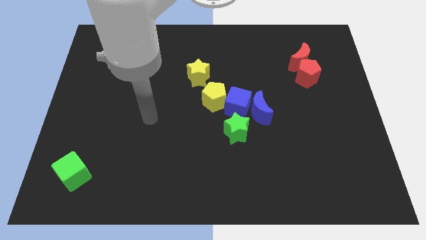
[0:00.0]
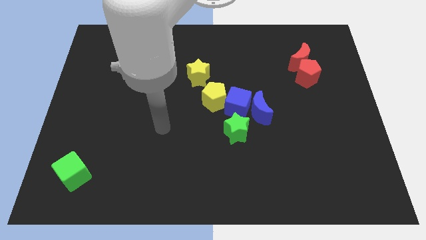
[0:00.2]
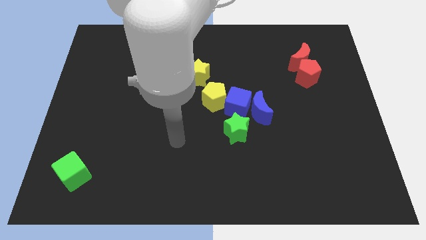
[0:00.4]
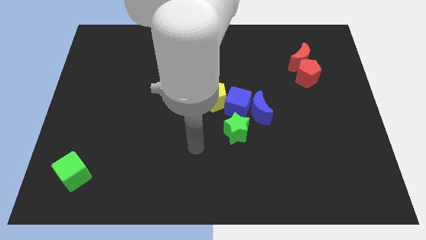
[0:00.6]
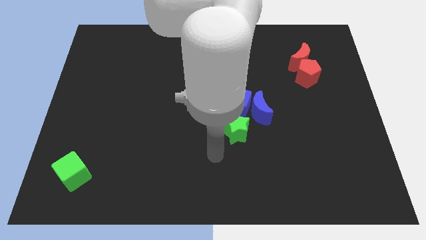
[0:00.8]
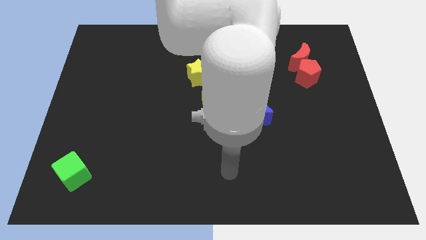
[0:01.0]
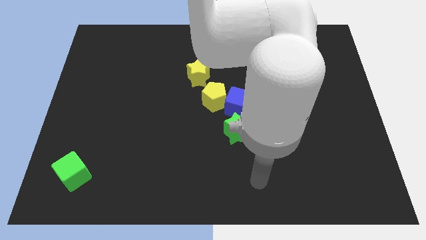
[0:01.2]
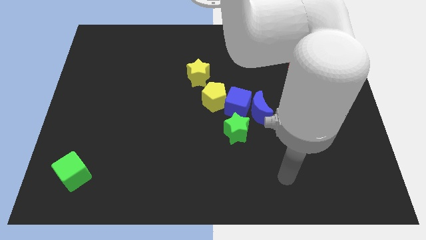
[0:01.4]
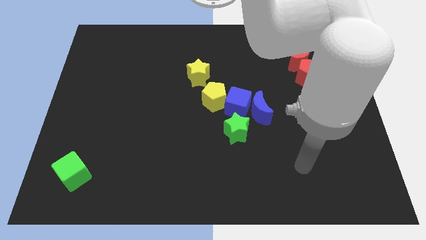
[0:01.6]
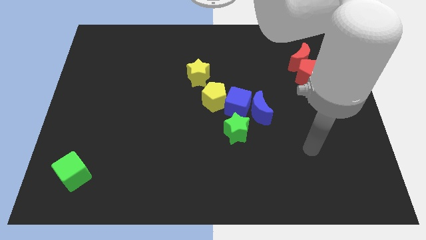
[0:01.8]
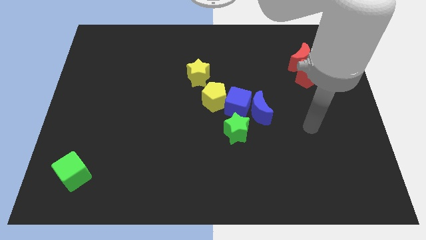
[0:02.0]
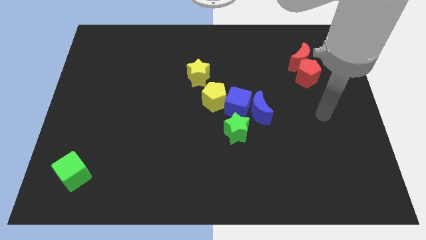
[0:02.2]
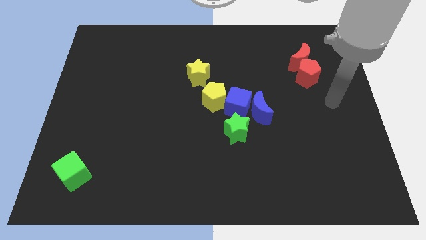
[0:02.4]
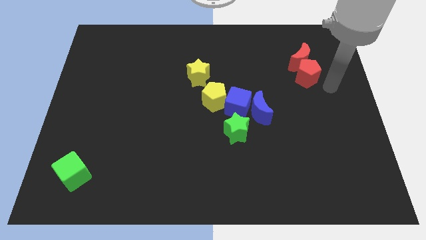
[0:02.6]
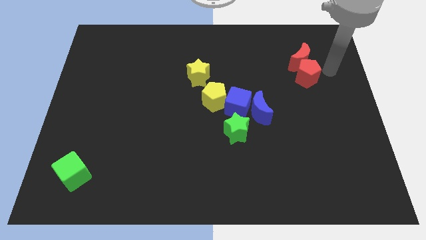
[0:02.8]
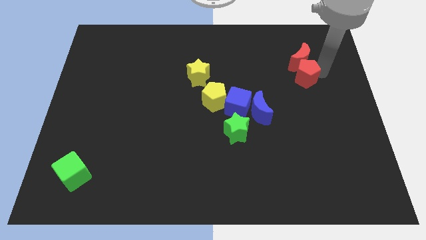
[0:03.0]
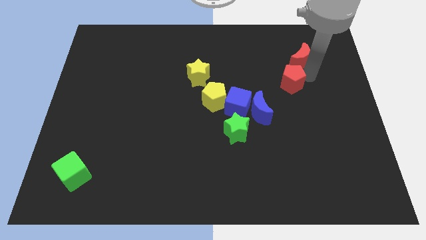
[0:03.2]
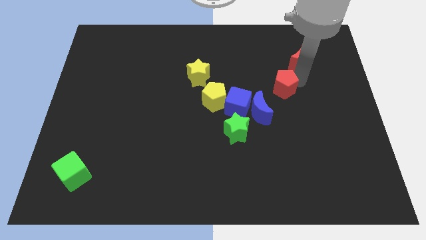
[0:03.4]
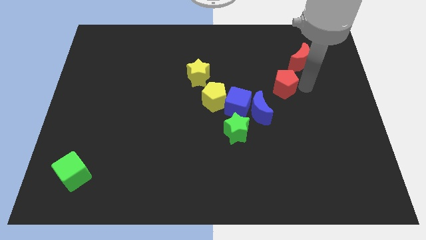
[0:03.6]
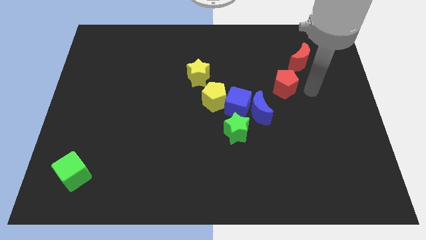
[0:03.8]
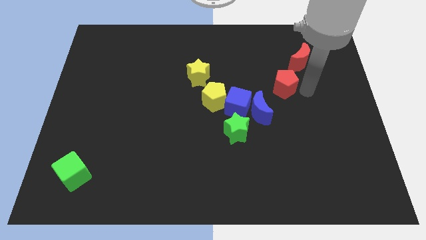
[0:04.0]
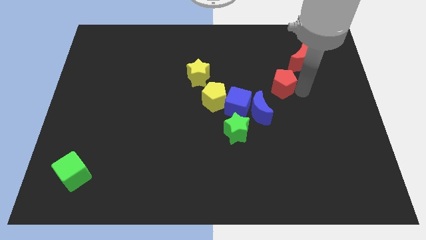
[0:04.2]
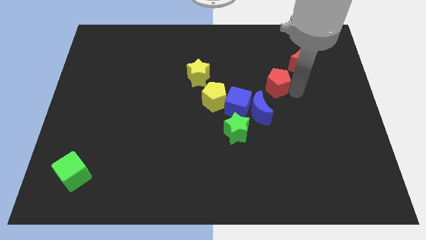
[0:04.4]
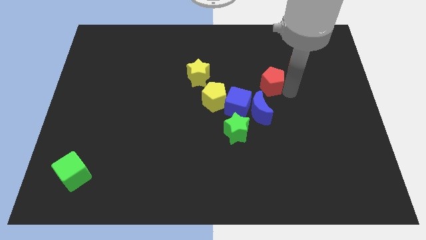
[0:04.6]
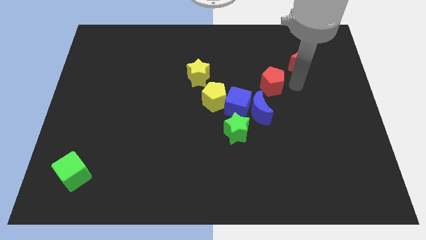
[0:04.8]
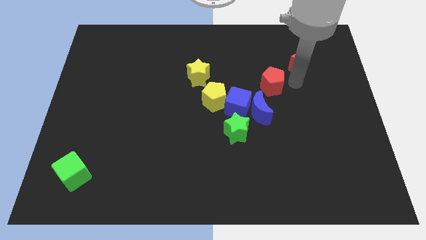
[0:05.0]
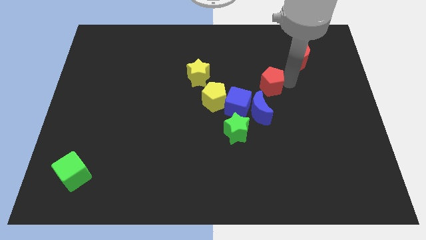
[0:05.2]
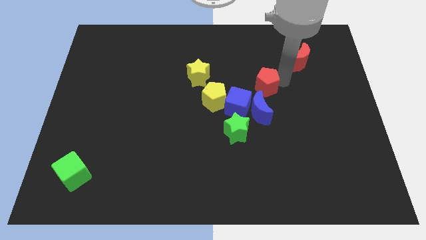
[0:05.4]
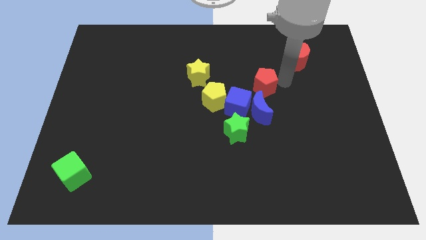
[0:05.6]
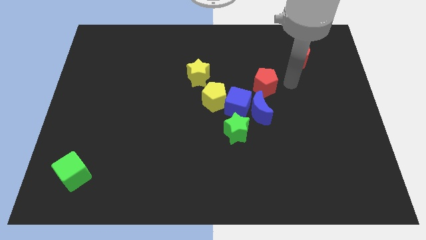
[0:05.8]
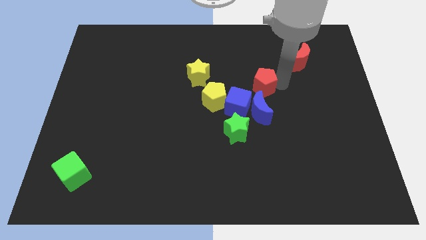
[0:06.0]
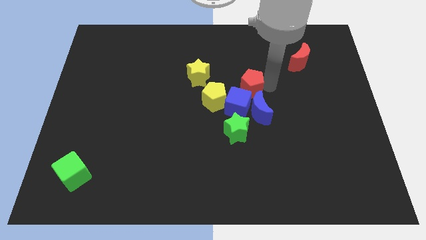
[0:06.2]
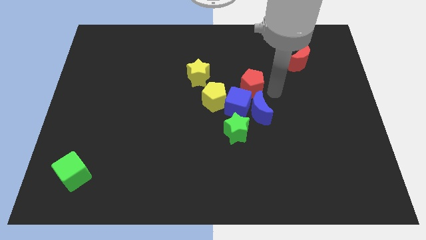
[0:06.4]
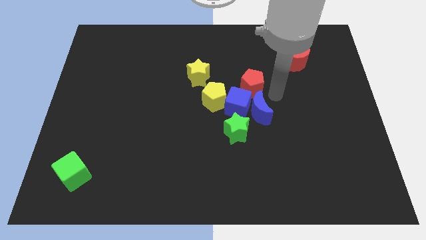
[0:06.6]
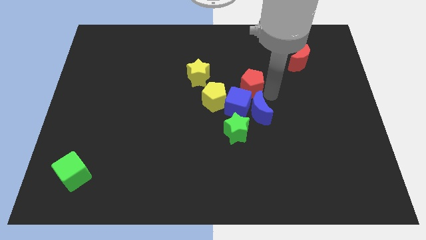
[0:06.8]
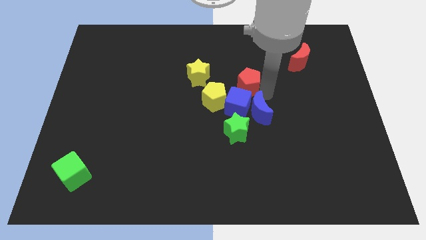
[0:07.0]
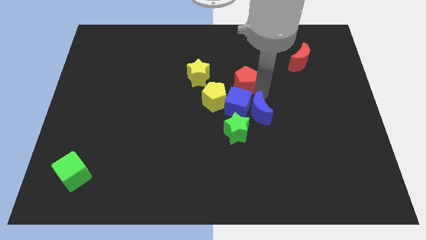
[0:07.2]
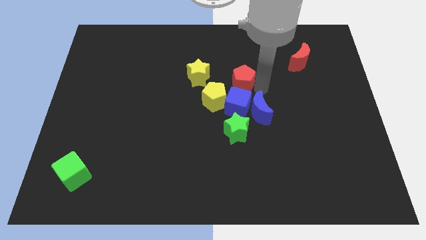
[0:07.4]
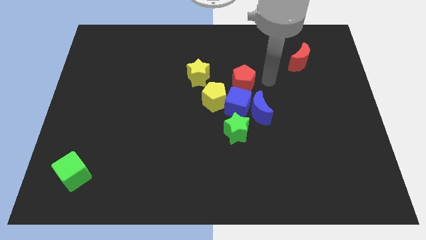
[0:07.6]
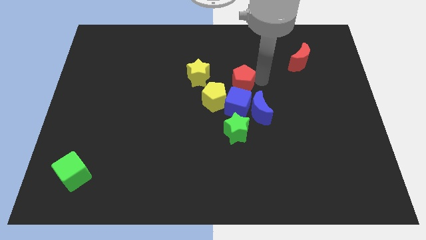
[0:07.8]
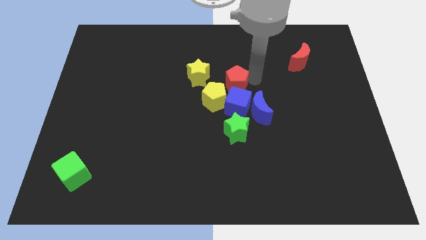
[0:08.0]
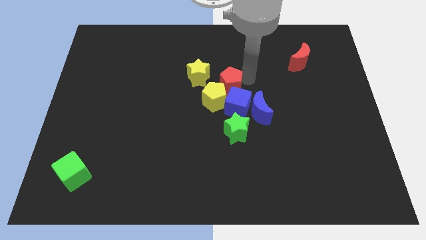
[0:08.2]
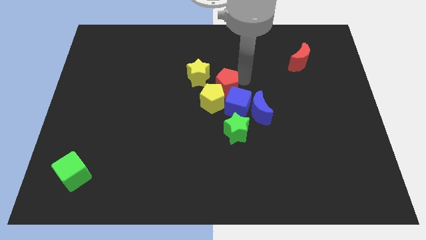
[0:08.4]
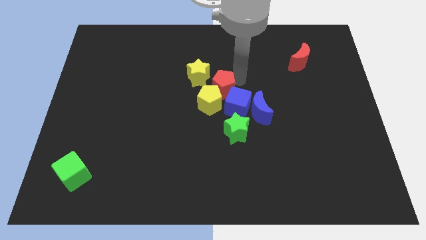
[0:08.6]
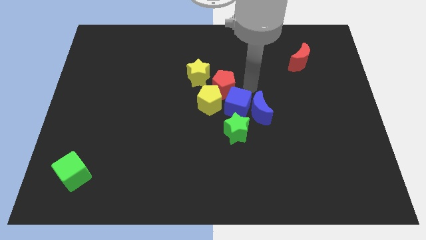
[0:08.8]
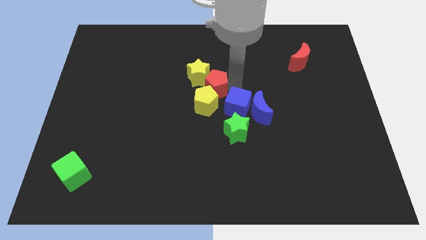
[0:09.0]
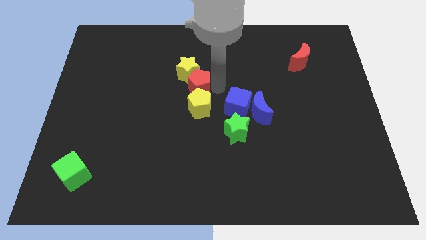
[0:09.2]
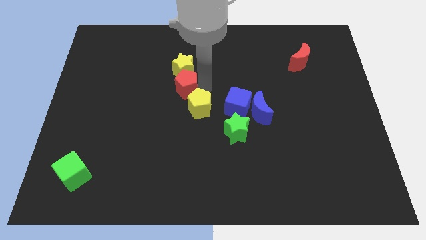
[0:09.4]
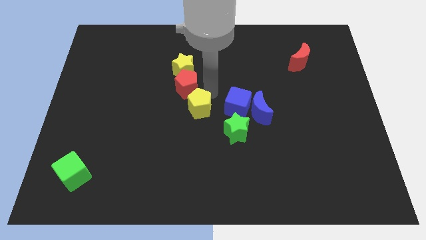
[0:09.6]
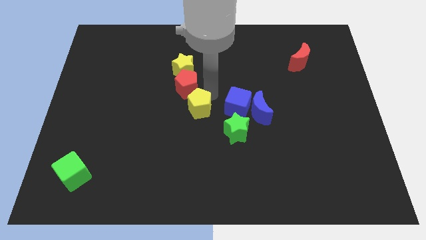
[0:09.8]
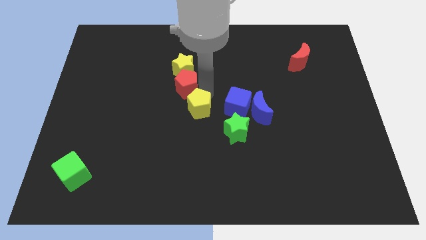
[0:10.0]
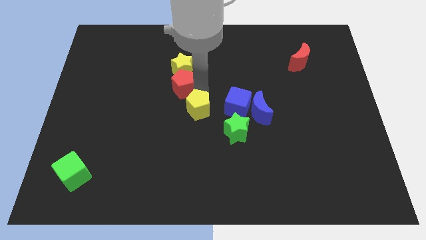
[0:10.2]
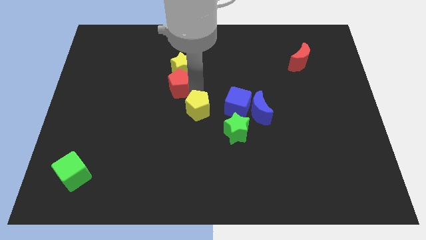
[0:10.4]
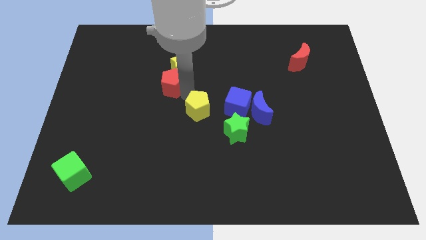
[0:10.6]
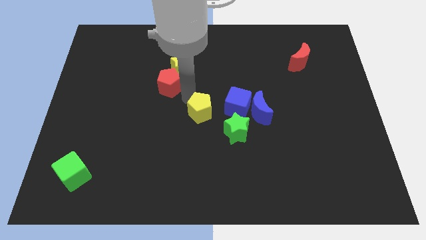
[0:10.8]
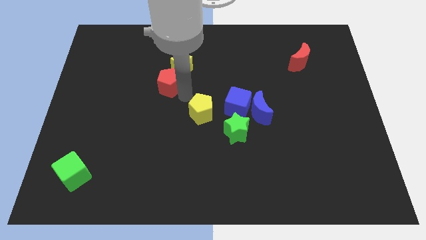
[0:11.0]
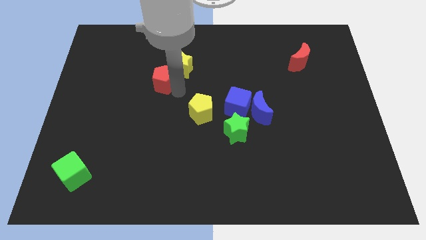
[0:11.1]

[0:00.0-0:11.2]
move the red pentagon to the left of the yellow star

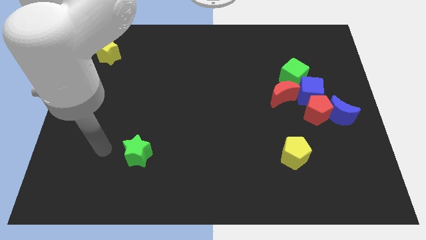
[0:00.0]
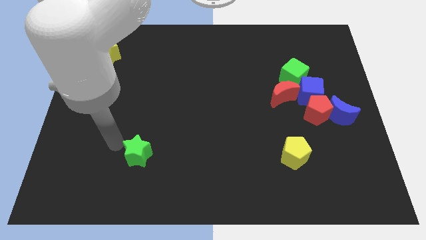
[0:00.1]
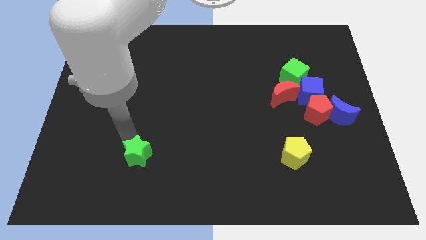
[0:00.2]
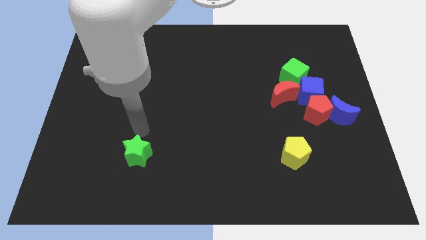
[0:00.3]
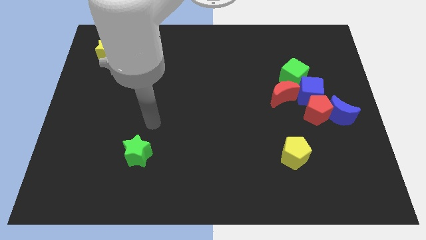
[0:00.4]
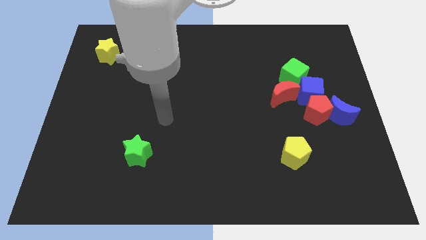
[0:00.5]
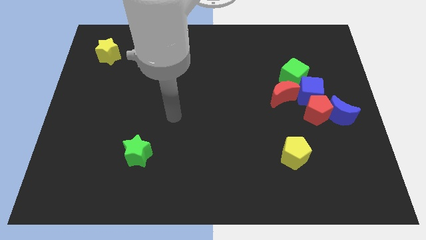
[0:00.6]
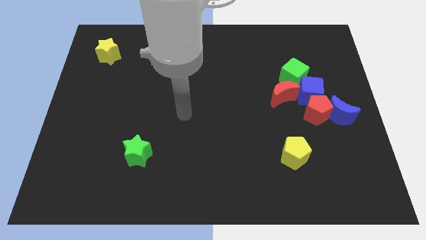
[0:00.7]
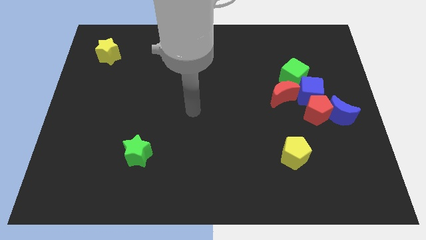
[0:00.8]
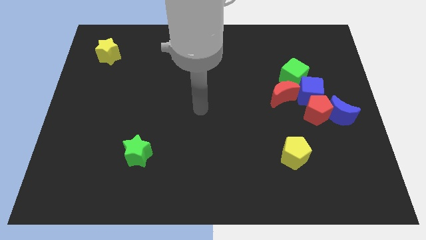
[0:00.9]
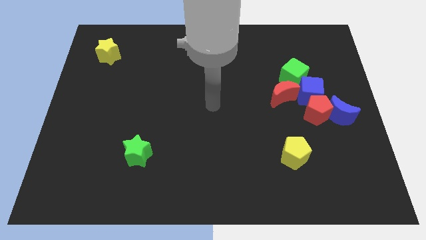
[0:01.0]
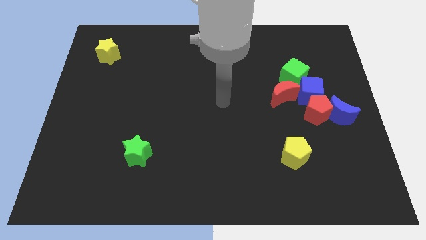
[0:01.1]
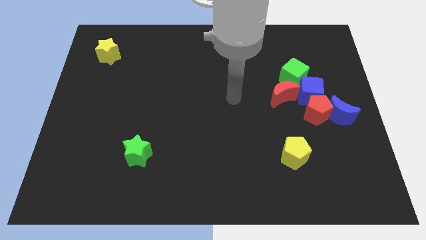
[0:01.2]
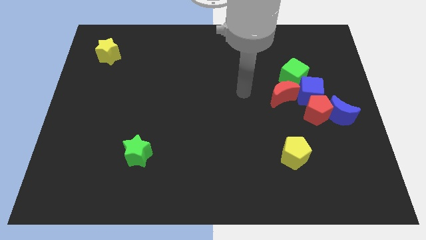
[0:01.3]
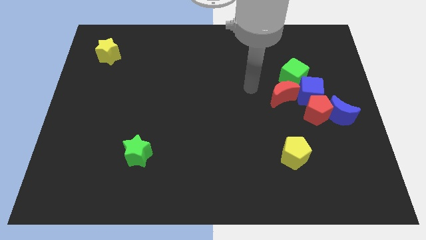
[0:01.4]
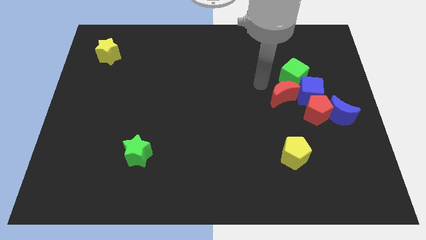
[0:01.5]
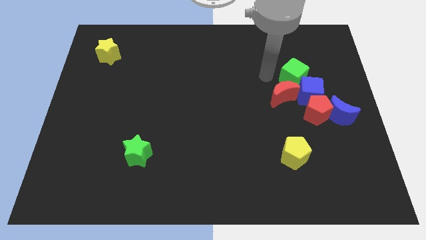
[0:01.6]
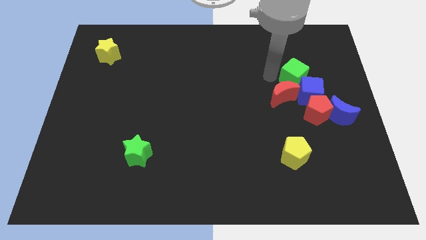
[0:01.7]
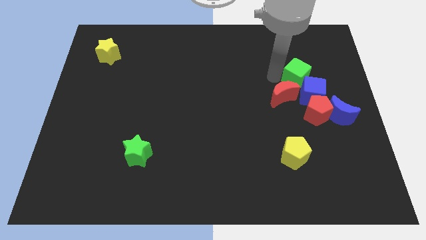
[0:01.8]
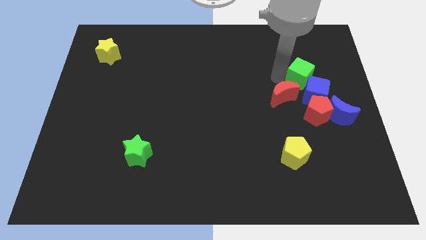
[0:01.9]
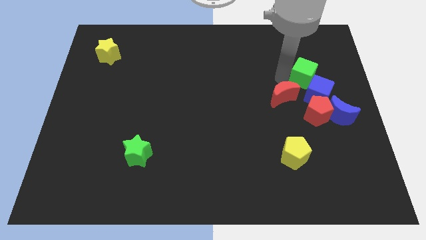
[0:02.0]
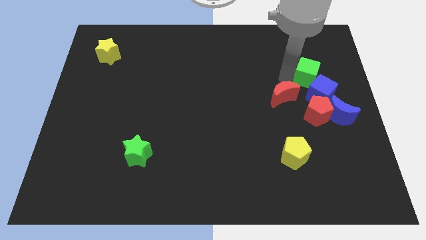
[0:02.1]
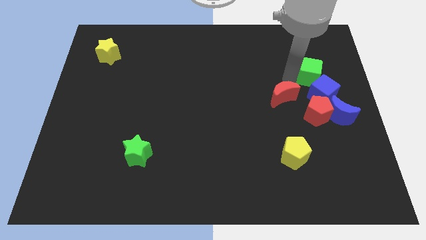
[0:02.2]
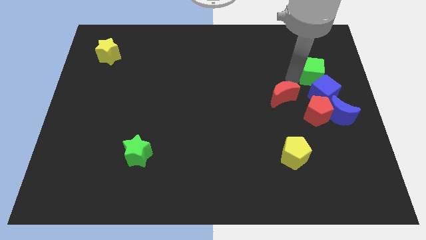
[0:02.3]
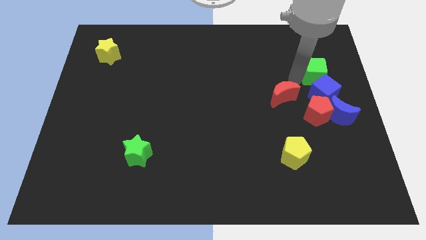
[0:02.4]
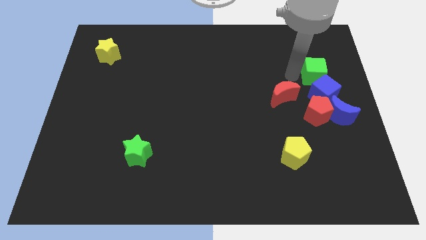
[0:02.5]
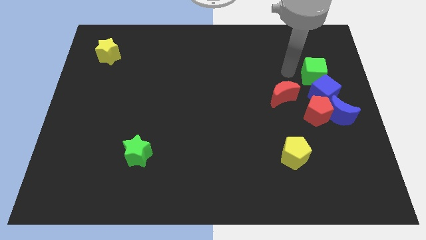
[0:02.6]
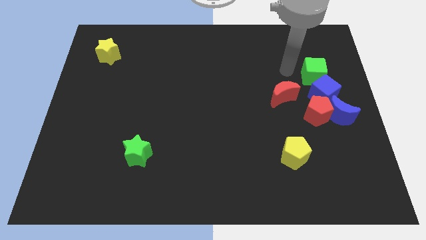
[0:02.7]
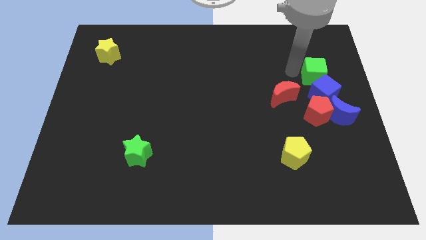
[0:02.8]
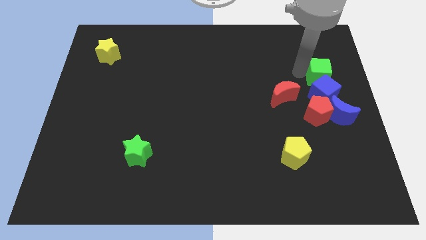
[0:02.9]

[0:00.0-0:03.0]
move the green cube diagonally up and to the right of the blue cube
